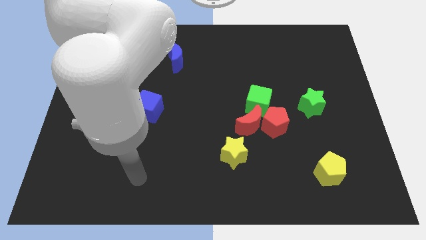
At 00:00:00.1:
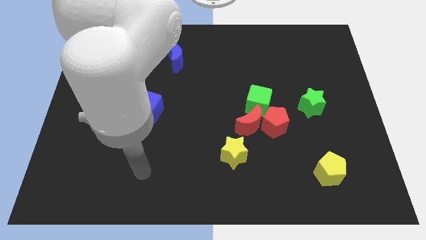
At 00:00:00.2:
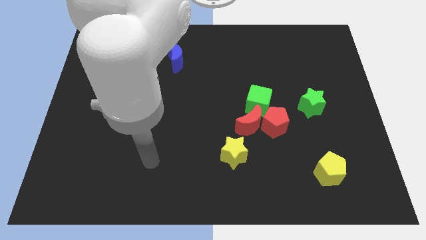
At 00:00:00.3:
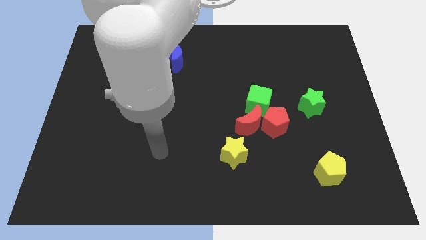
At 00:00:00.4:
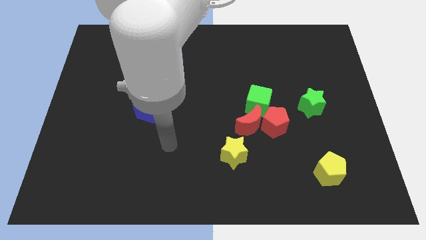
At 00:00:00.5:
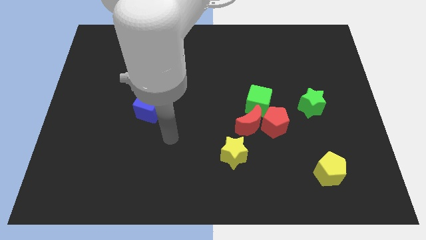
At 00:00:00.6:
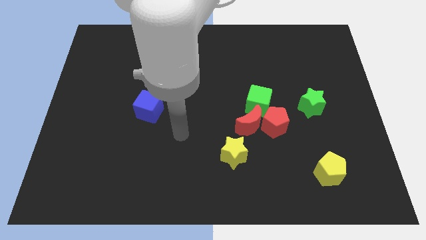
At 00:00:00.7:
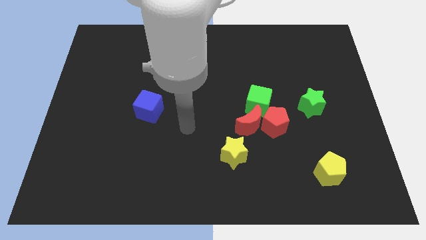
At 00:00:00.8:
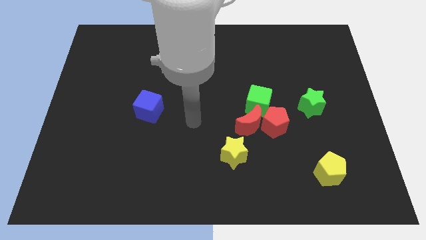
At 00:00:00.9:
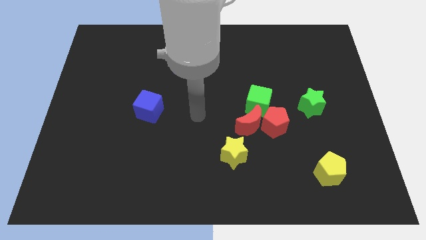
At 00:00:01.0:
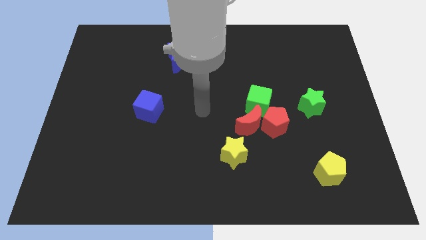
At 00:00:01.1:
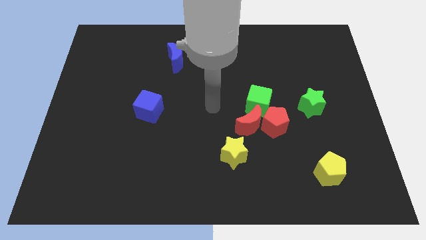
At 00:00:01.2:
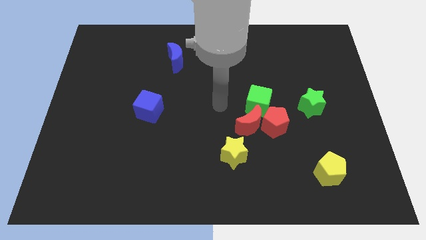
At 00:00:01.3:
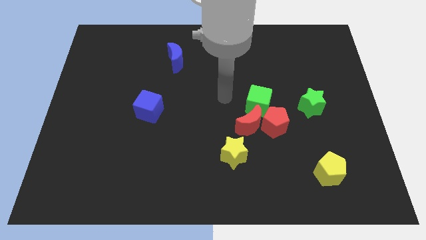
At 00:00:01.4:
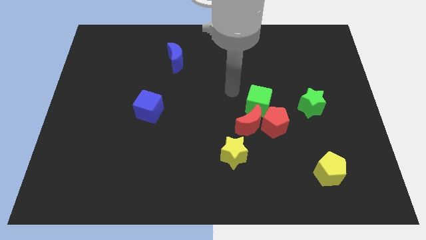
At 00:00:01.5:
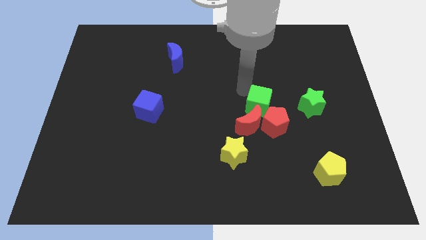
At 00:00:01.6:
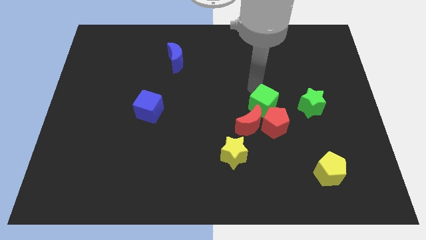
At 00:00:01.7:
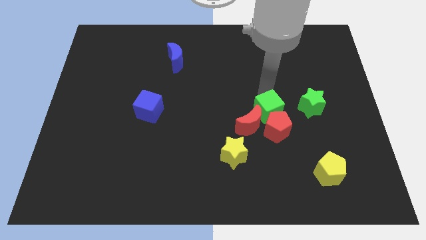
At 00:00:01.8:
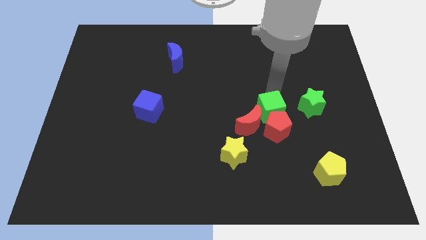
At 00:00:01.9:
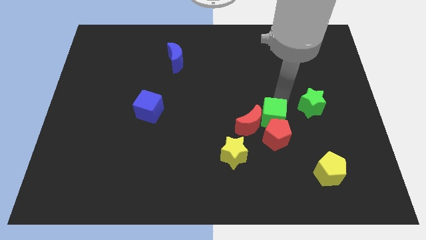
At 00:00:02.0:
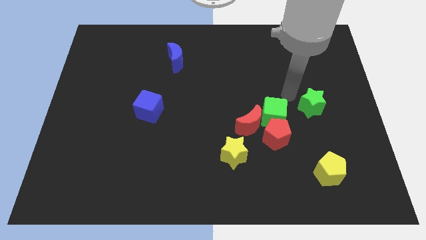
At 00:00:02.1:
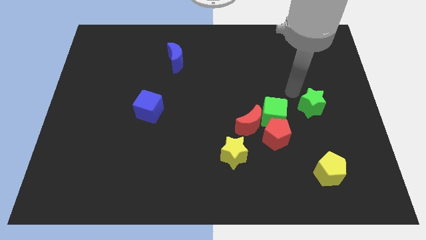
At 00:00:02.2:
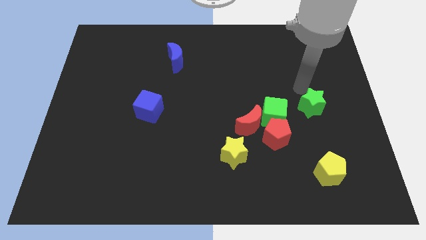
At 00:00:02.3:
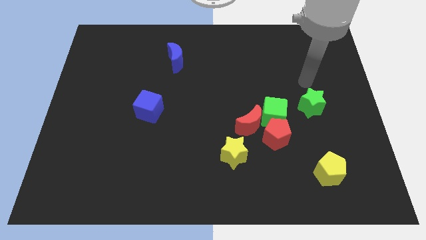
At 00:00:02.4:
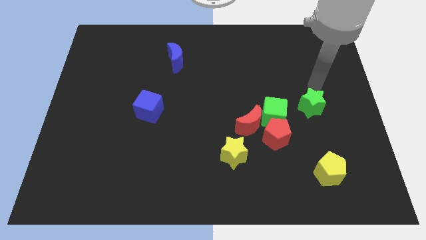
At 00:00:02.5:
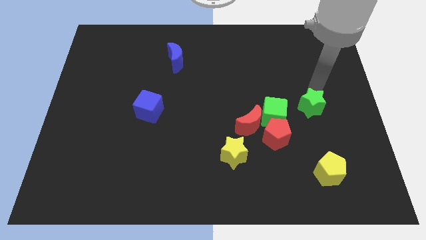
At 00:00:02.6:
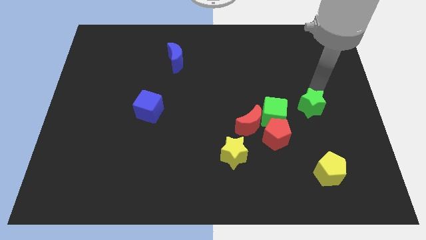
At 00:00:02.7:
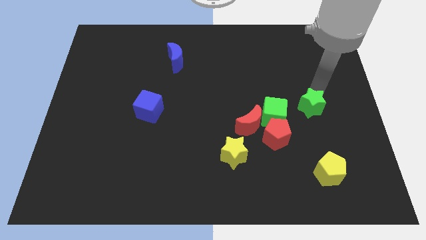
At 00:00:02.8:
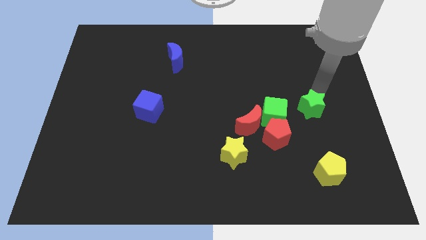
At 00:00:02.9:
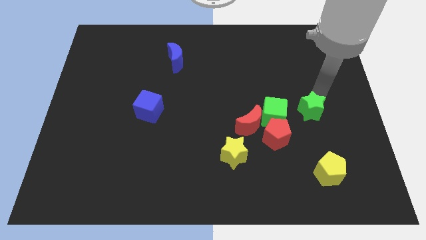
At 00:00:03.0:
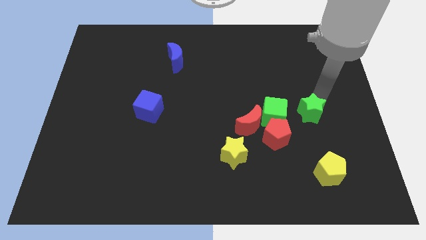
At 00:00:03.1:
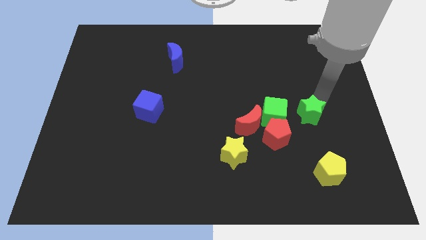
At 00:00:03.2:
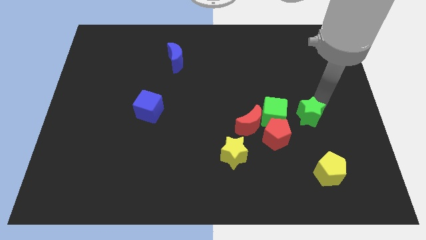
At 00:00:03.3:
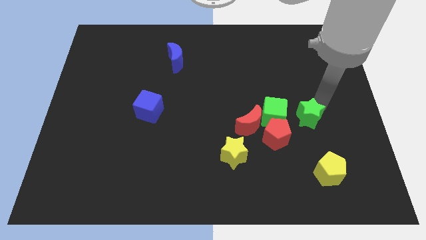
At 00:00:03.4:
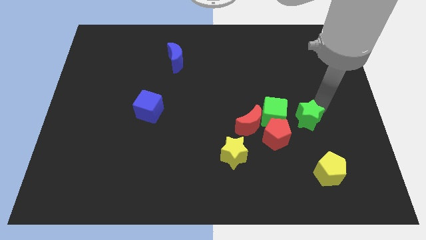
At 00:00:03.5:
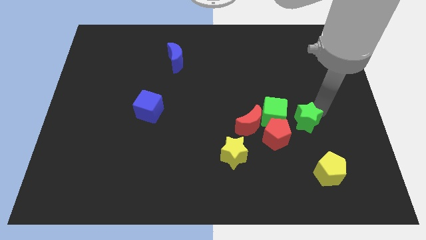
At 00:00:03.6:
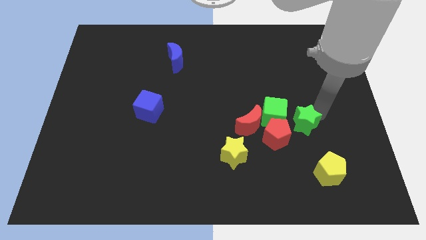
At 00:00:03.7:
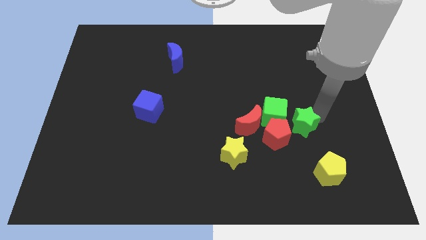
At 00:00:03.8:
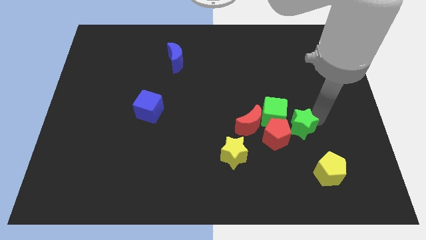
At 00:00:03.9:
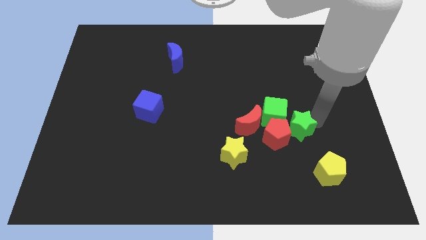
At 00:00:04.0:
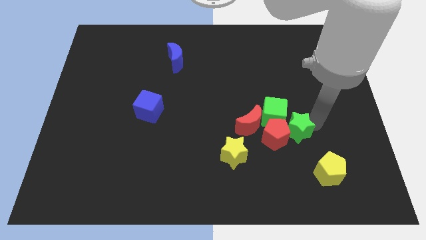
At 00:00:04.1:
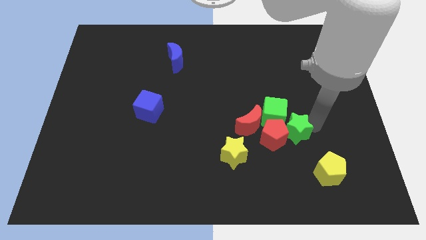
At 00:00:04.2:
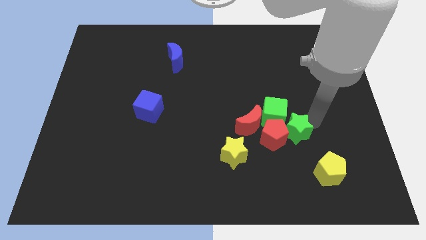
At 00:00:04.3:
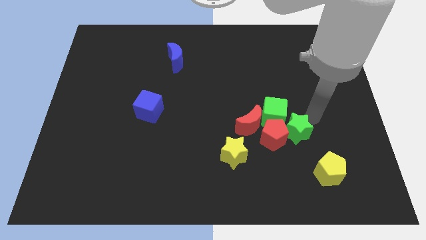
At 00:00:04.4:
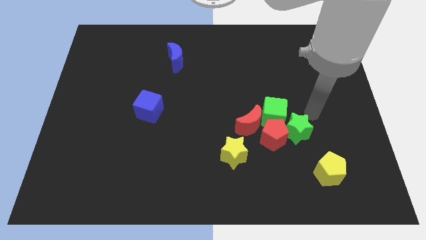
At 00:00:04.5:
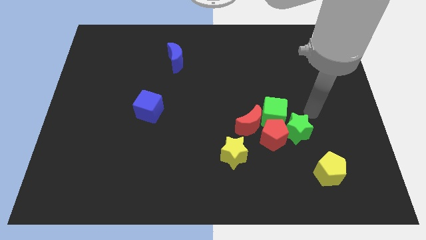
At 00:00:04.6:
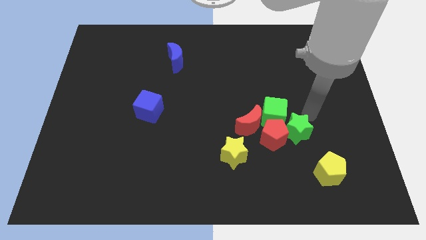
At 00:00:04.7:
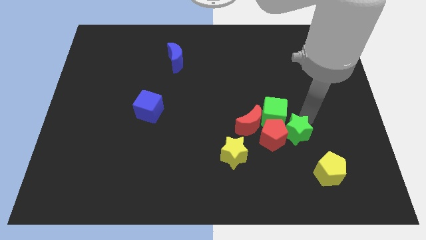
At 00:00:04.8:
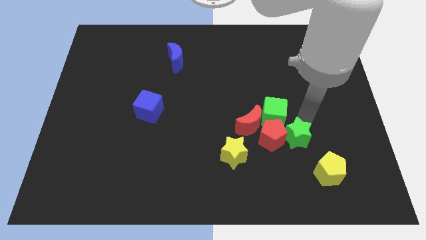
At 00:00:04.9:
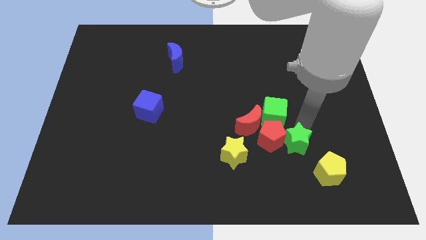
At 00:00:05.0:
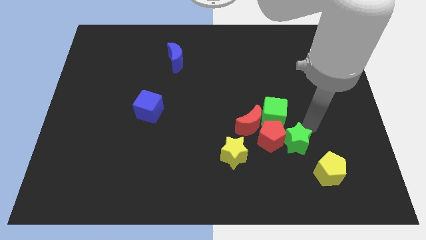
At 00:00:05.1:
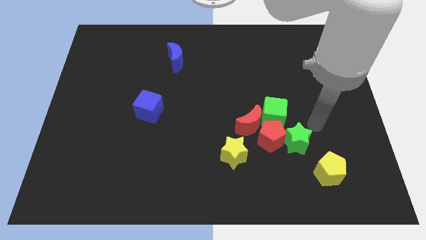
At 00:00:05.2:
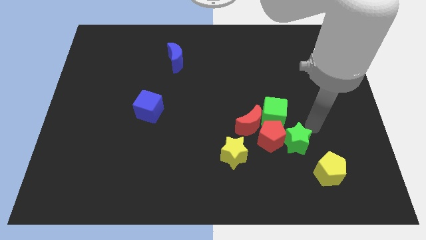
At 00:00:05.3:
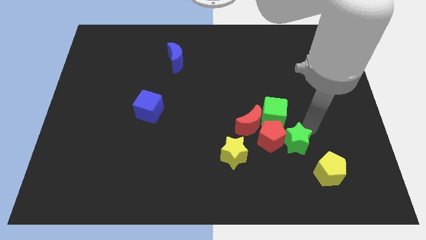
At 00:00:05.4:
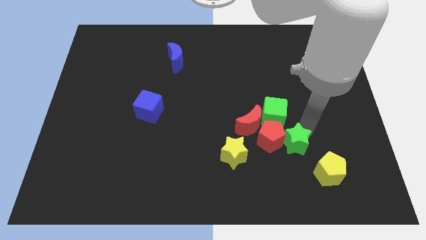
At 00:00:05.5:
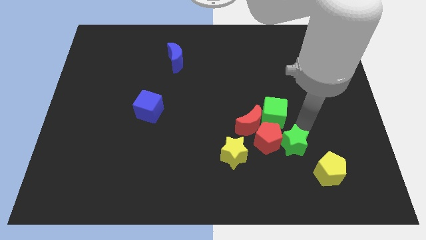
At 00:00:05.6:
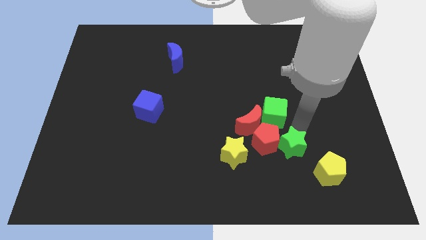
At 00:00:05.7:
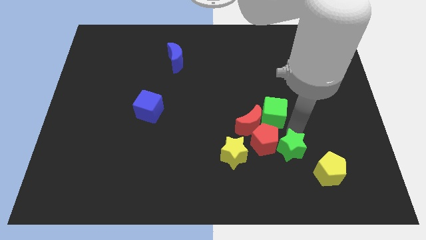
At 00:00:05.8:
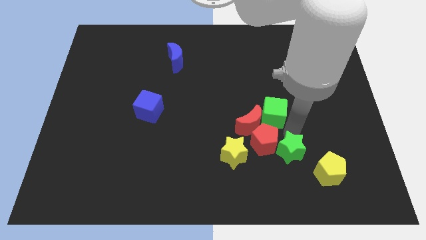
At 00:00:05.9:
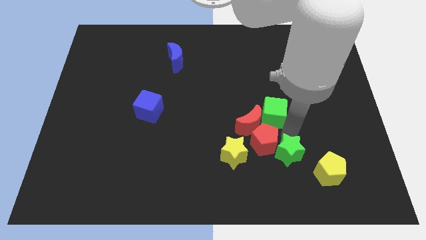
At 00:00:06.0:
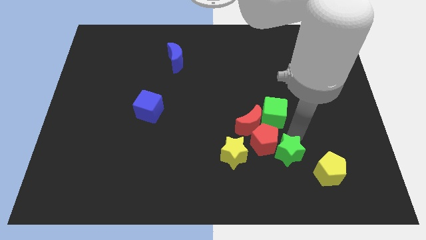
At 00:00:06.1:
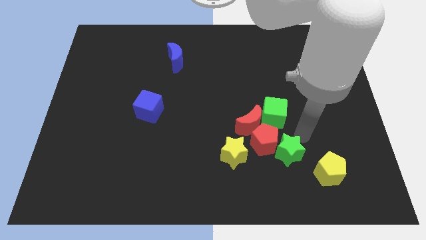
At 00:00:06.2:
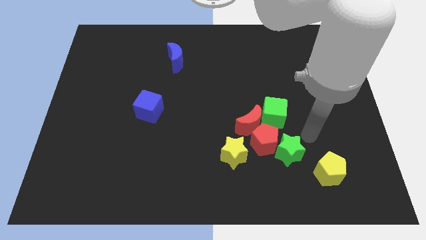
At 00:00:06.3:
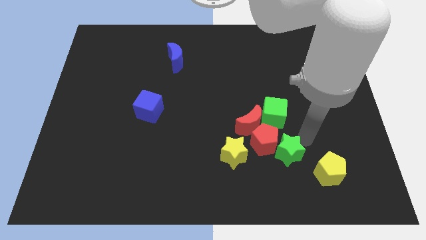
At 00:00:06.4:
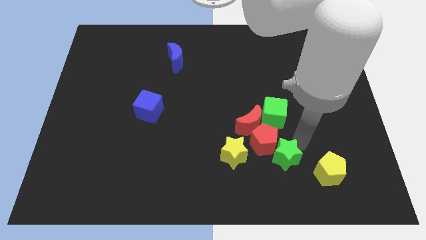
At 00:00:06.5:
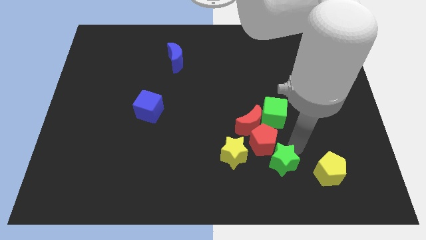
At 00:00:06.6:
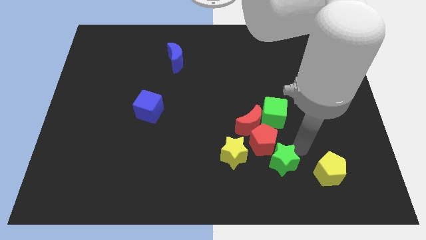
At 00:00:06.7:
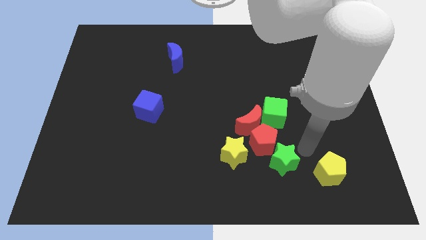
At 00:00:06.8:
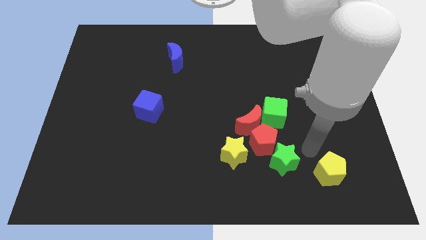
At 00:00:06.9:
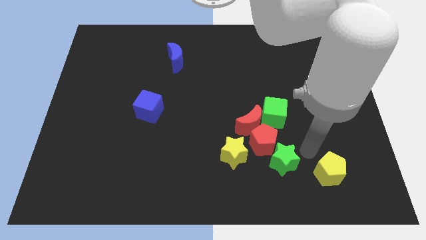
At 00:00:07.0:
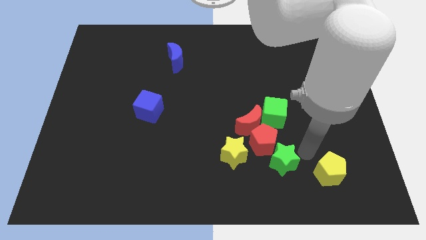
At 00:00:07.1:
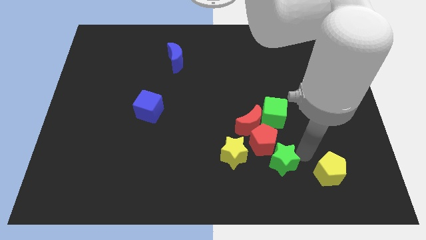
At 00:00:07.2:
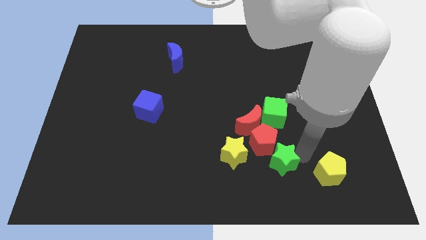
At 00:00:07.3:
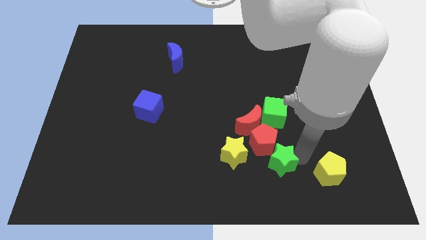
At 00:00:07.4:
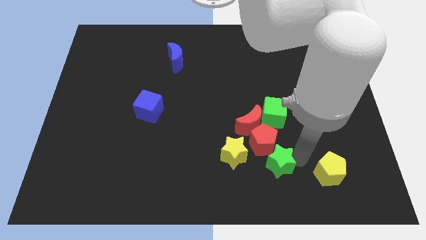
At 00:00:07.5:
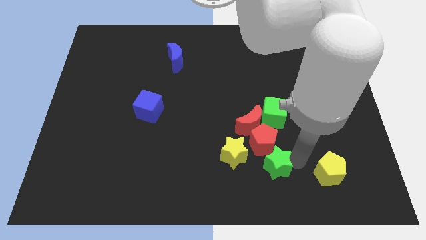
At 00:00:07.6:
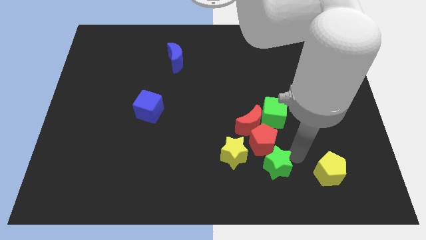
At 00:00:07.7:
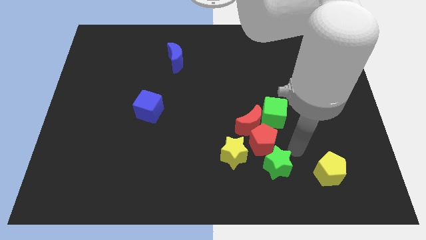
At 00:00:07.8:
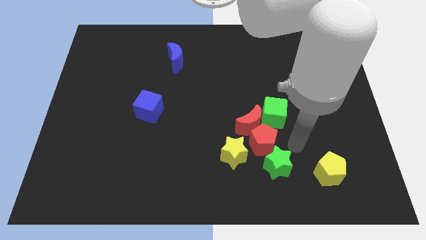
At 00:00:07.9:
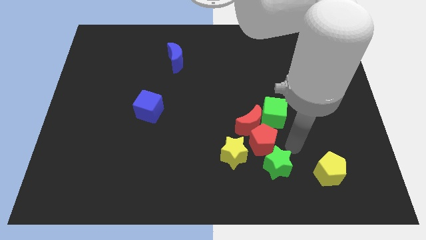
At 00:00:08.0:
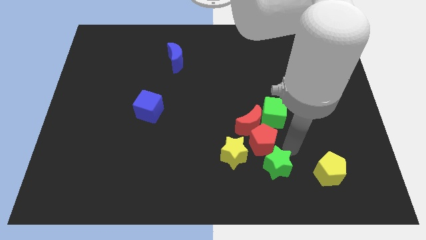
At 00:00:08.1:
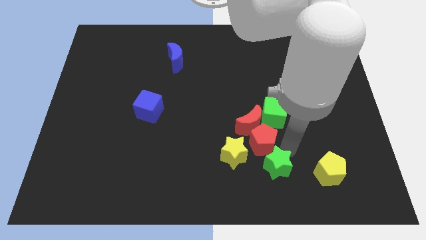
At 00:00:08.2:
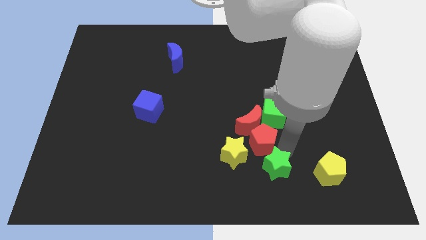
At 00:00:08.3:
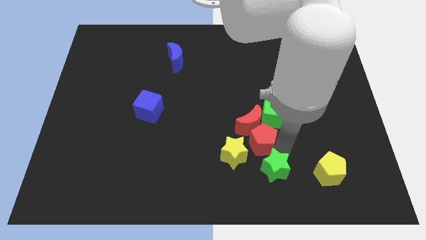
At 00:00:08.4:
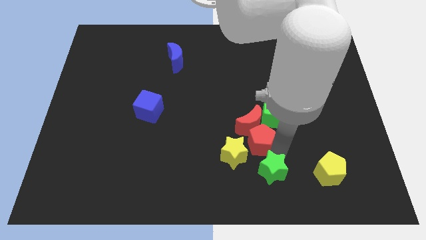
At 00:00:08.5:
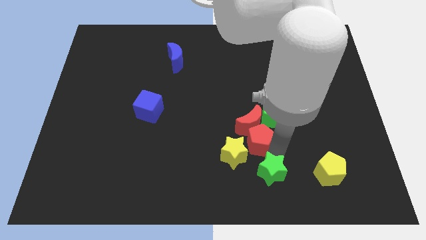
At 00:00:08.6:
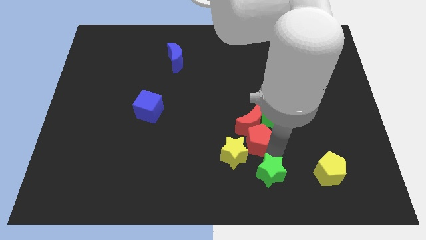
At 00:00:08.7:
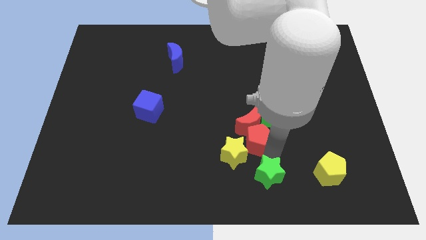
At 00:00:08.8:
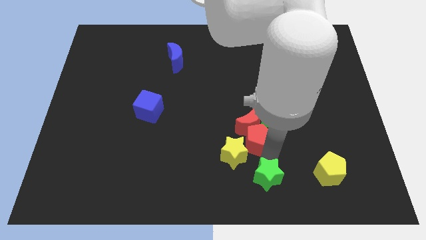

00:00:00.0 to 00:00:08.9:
put the green star to the bottom
